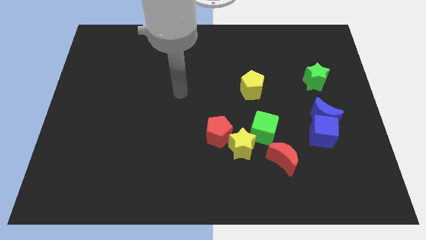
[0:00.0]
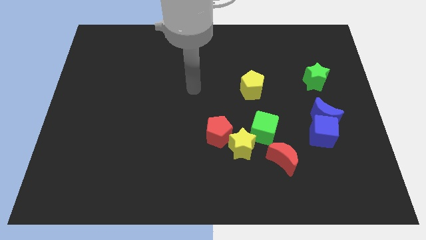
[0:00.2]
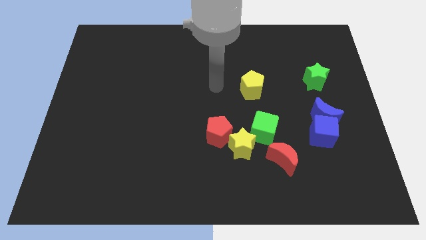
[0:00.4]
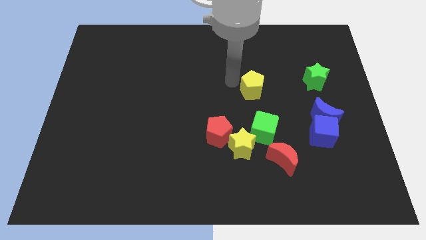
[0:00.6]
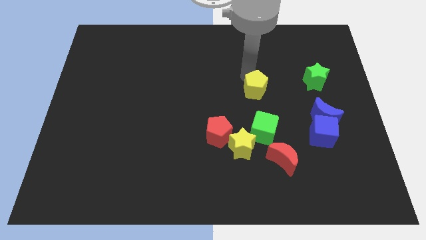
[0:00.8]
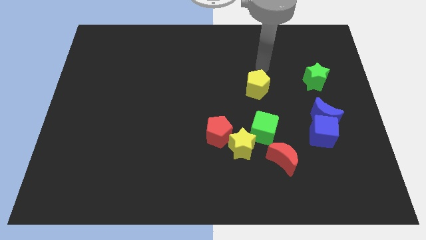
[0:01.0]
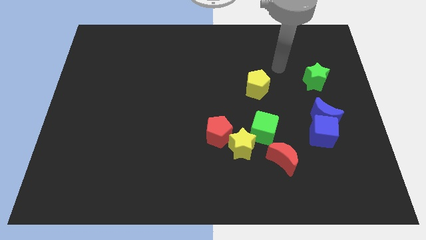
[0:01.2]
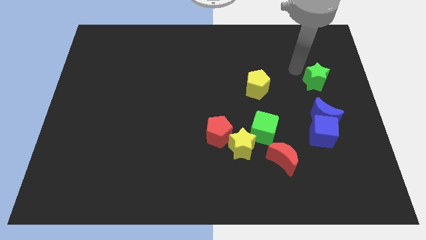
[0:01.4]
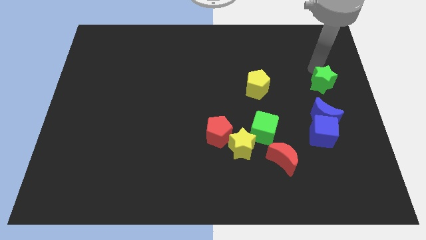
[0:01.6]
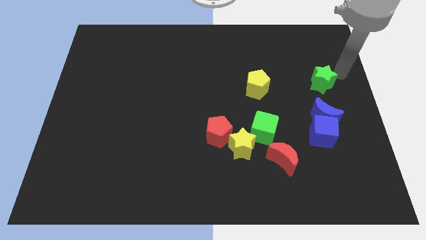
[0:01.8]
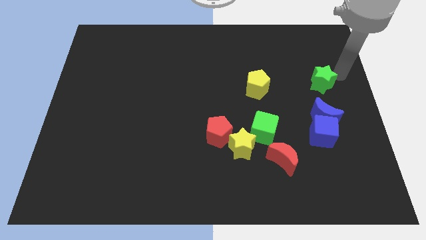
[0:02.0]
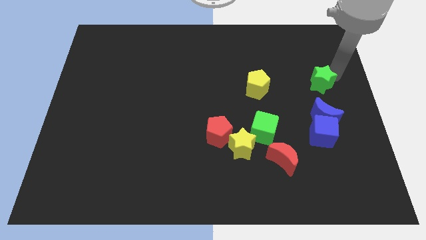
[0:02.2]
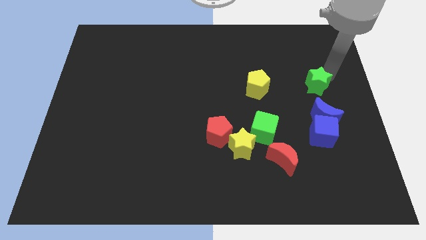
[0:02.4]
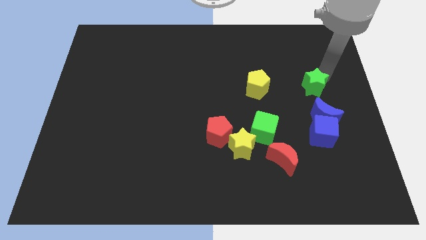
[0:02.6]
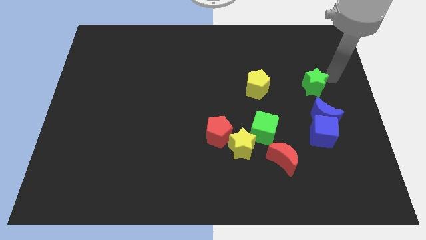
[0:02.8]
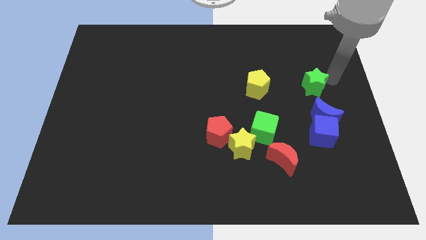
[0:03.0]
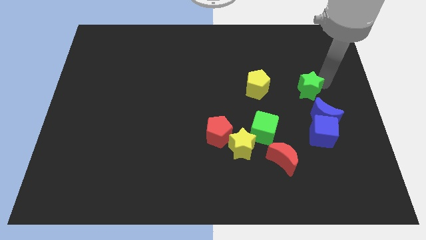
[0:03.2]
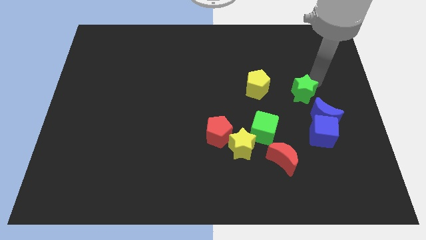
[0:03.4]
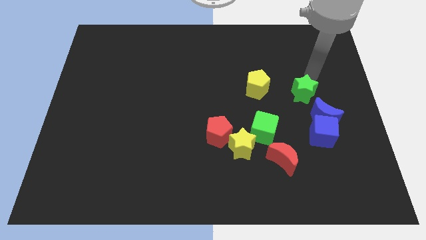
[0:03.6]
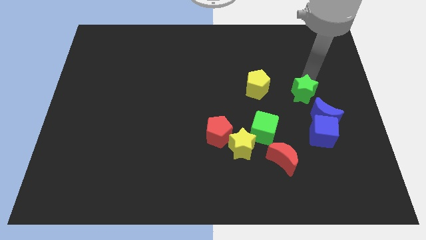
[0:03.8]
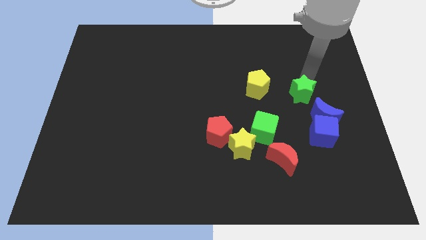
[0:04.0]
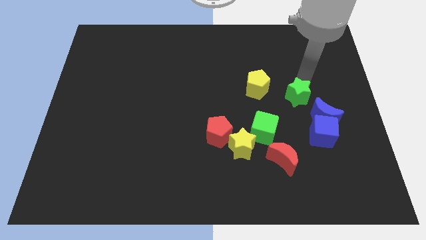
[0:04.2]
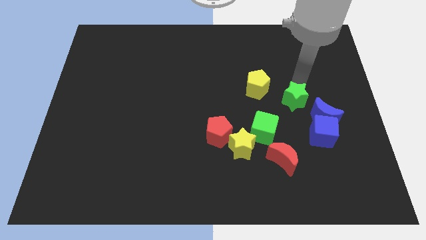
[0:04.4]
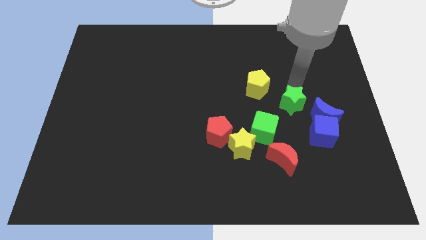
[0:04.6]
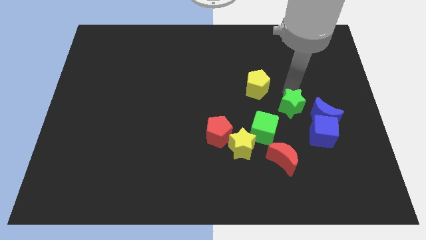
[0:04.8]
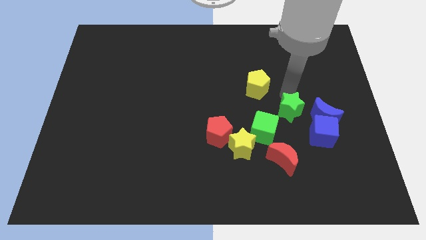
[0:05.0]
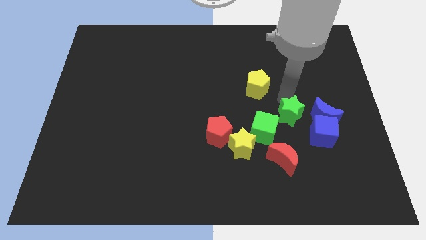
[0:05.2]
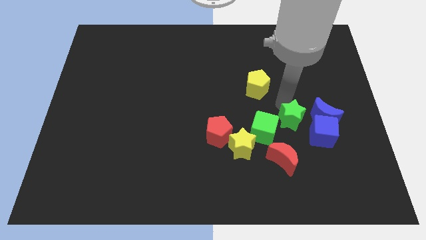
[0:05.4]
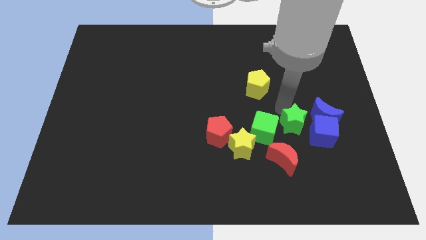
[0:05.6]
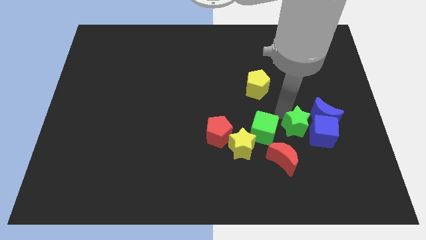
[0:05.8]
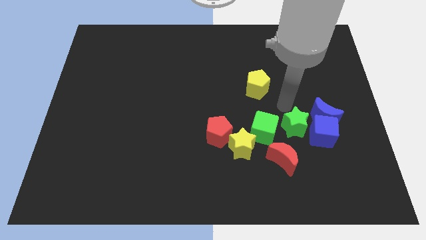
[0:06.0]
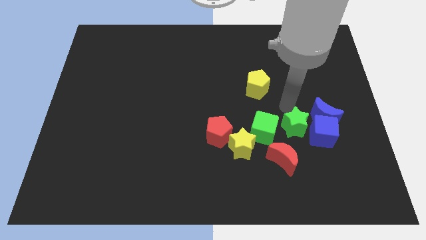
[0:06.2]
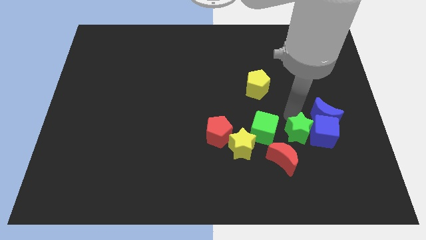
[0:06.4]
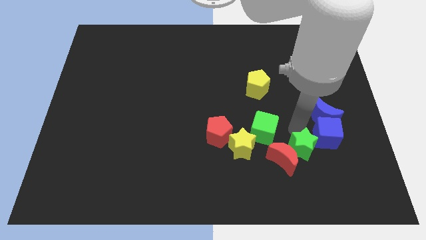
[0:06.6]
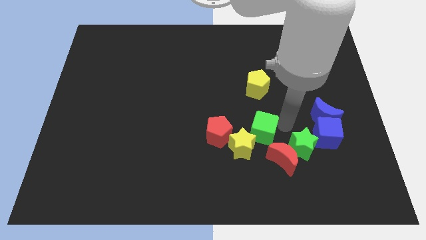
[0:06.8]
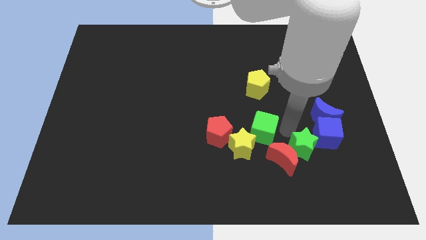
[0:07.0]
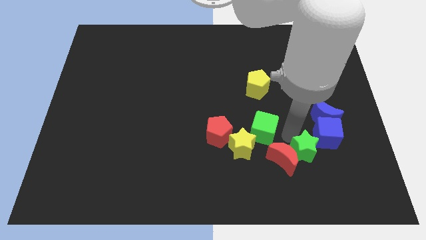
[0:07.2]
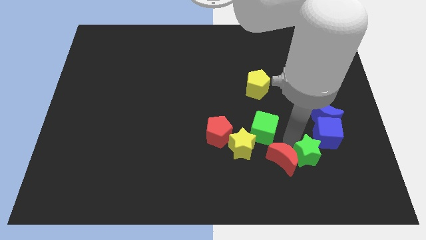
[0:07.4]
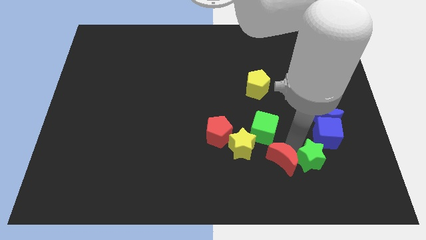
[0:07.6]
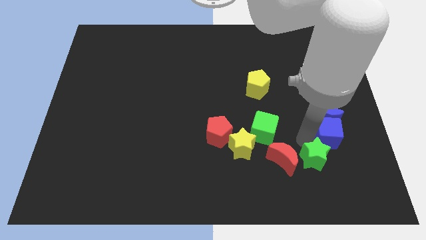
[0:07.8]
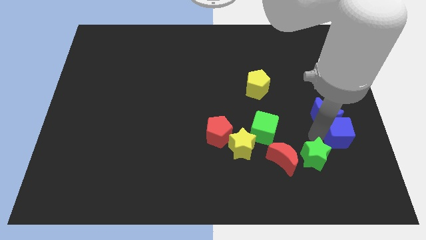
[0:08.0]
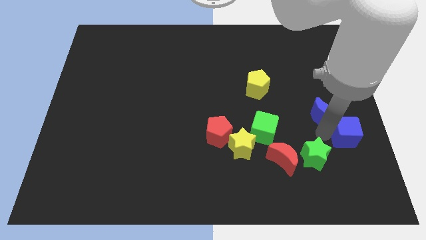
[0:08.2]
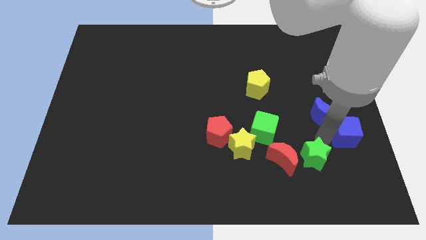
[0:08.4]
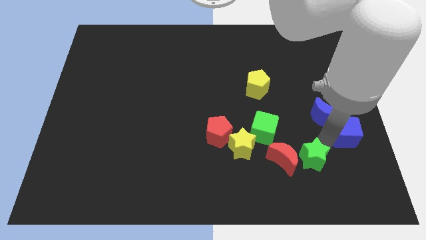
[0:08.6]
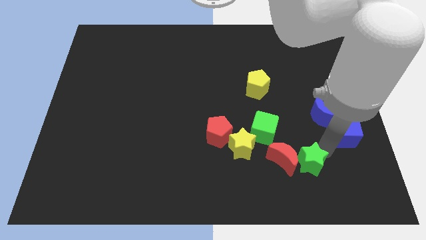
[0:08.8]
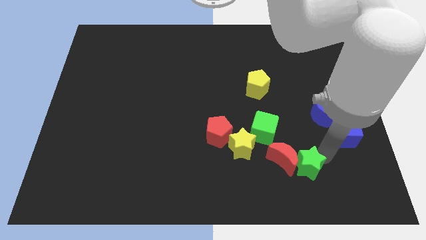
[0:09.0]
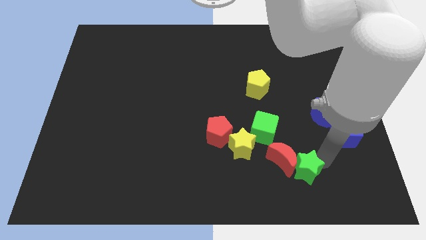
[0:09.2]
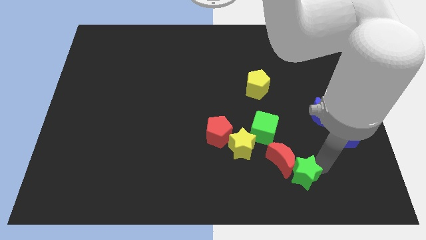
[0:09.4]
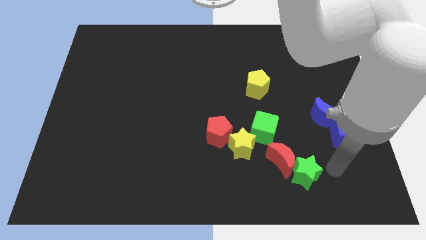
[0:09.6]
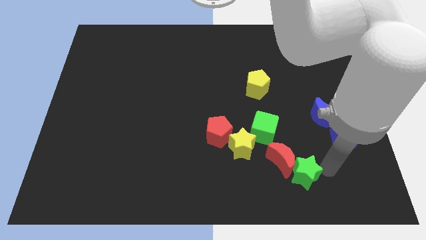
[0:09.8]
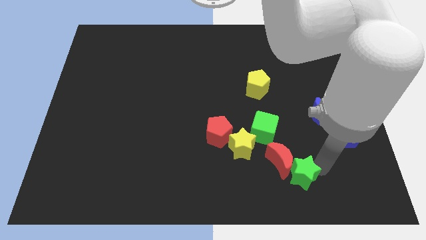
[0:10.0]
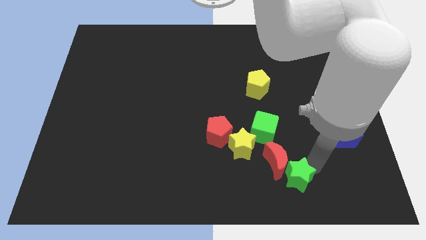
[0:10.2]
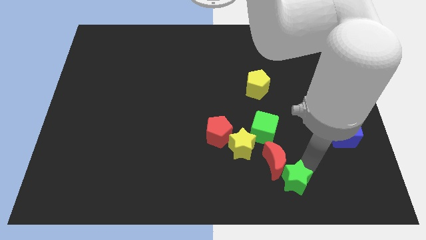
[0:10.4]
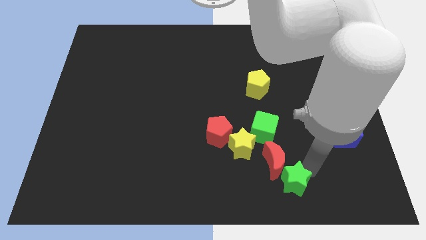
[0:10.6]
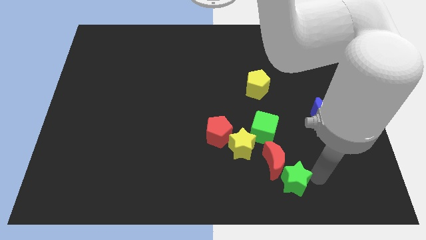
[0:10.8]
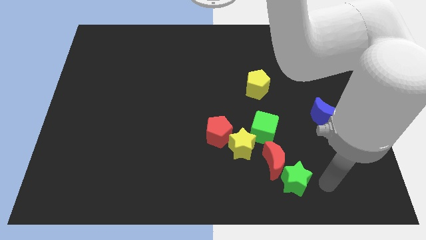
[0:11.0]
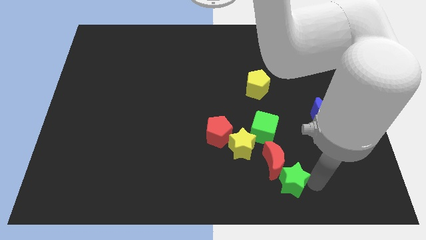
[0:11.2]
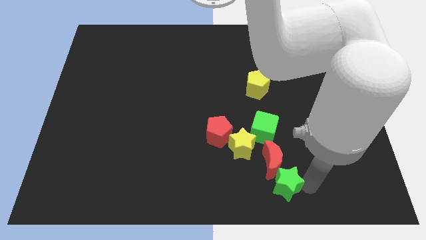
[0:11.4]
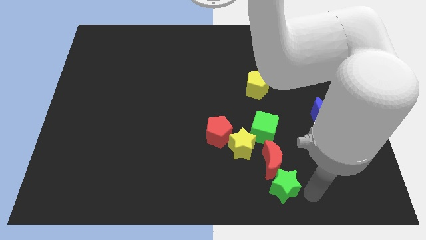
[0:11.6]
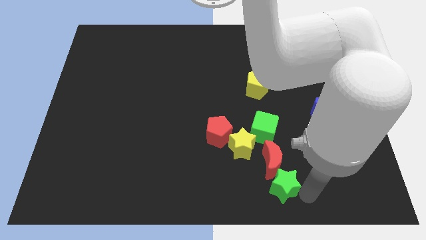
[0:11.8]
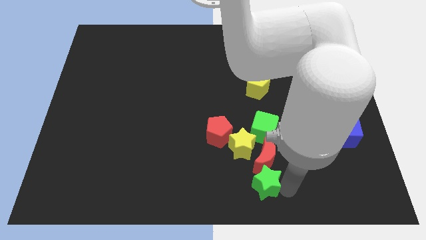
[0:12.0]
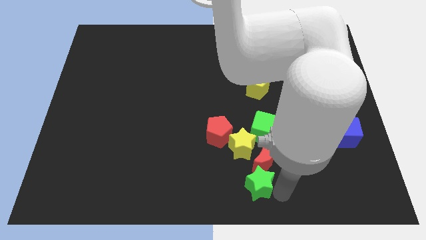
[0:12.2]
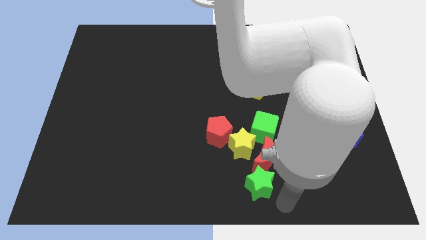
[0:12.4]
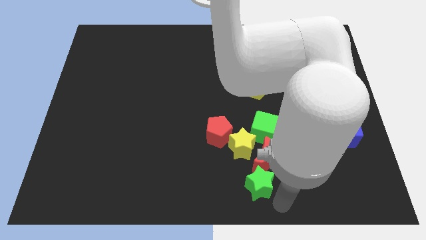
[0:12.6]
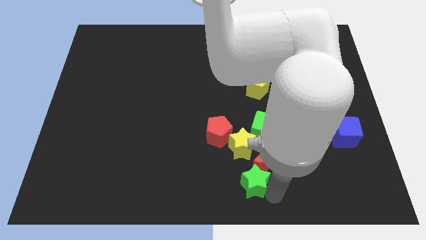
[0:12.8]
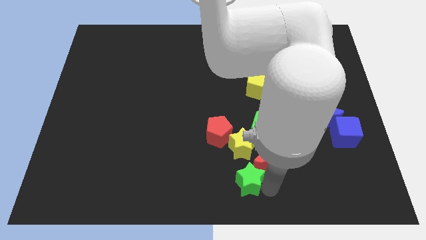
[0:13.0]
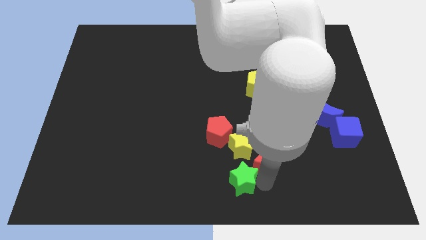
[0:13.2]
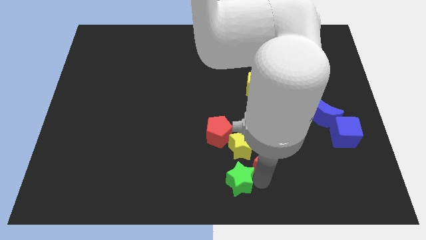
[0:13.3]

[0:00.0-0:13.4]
move the green star to the bottom of the red pentagon

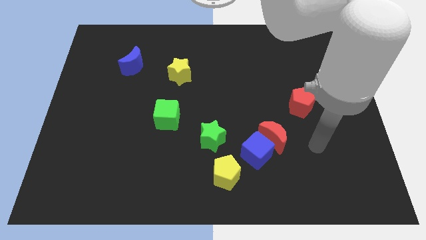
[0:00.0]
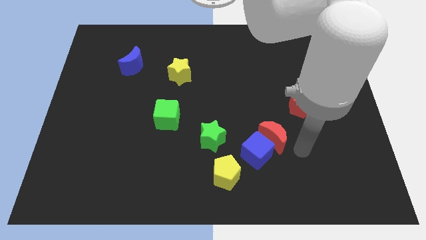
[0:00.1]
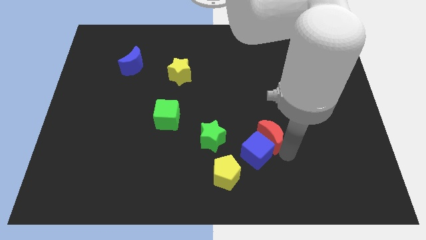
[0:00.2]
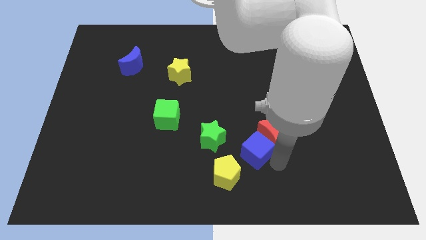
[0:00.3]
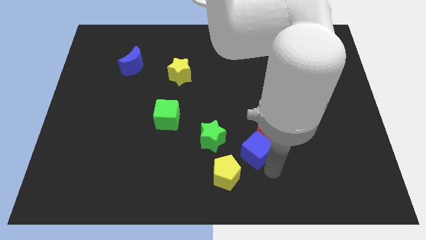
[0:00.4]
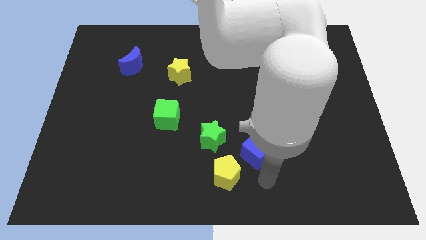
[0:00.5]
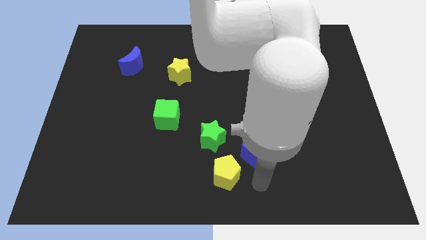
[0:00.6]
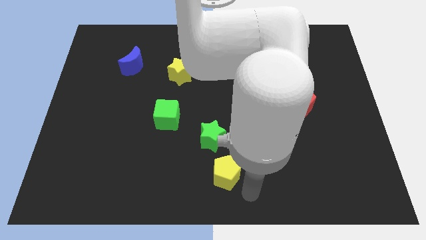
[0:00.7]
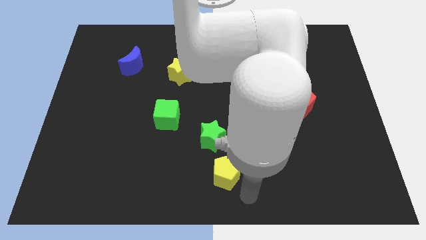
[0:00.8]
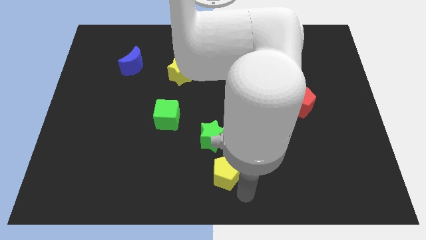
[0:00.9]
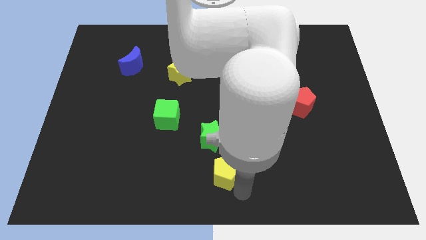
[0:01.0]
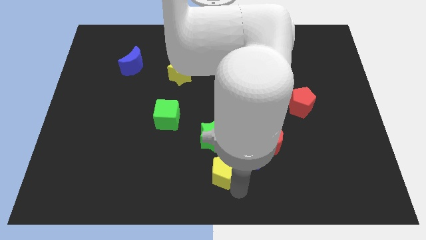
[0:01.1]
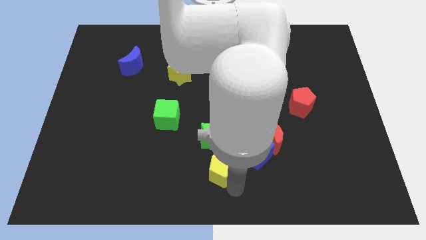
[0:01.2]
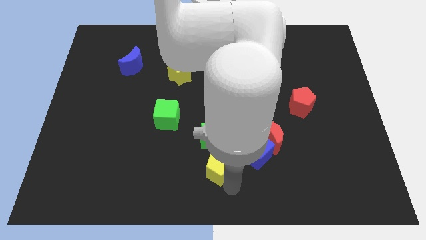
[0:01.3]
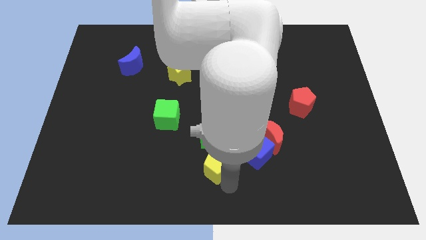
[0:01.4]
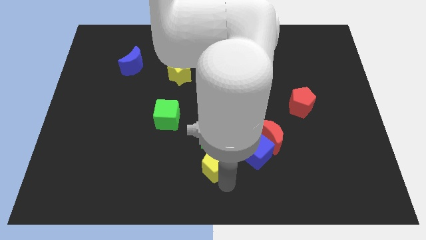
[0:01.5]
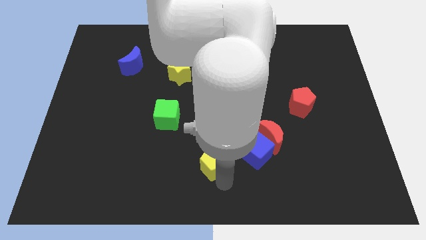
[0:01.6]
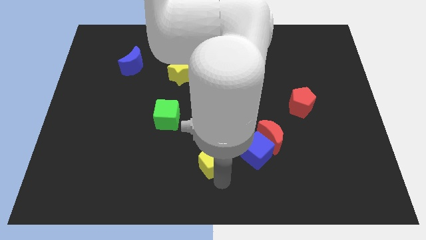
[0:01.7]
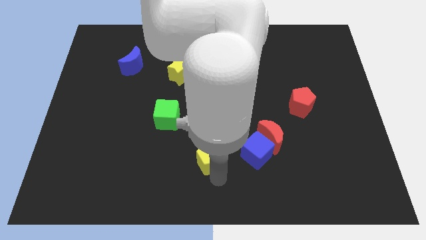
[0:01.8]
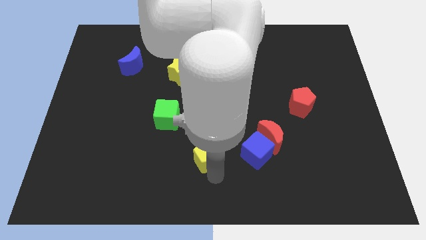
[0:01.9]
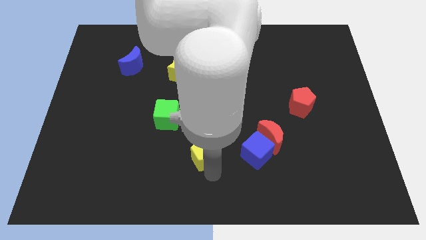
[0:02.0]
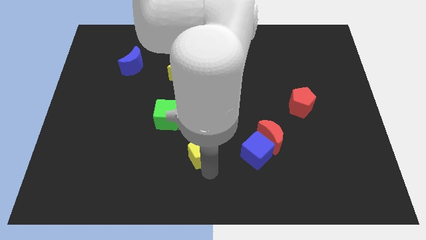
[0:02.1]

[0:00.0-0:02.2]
move the yellow pentagon diagonally down and to the right of the green cube
